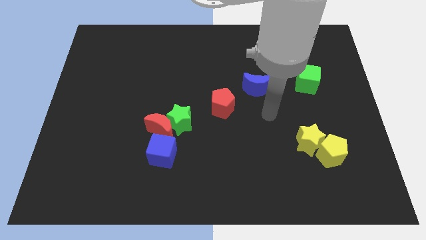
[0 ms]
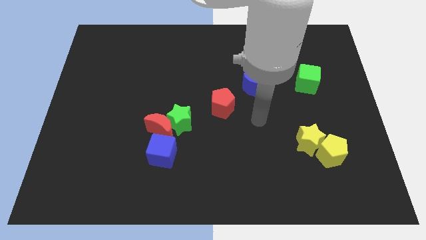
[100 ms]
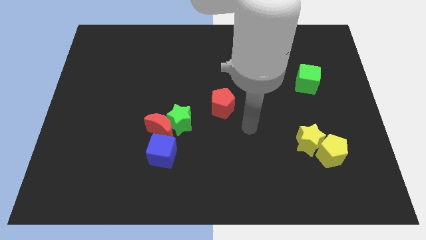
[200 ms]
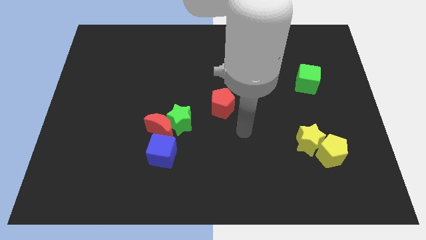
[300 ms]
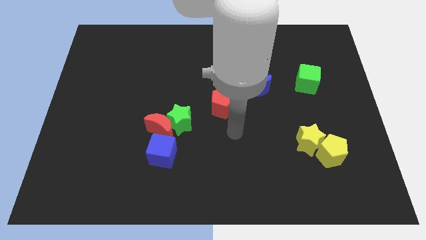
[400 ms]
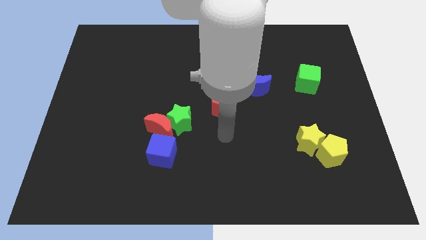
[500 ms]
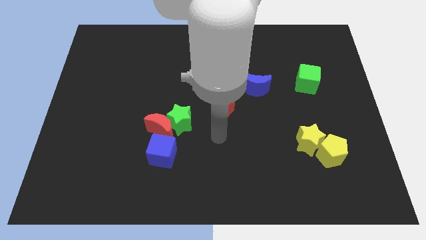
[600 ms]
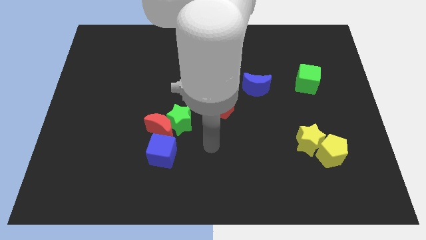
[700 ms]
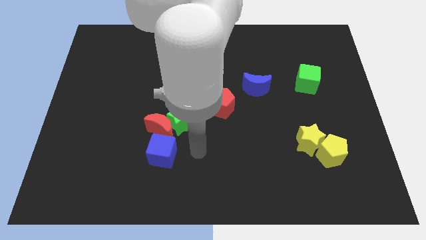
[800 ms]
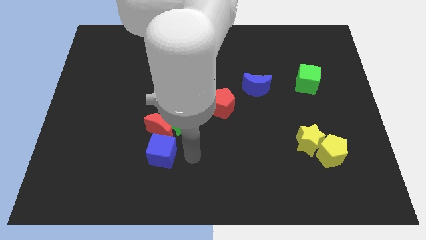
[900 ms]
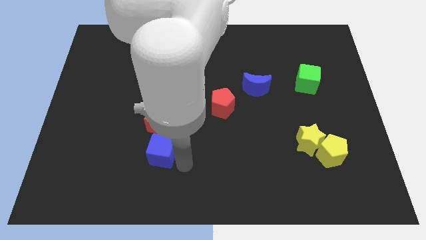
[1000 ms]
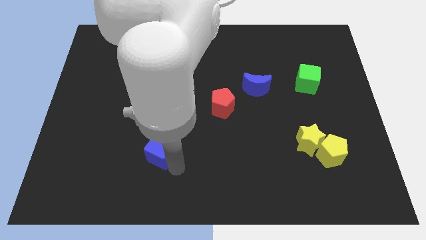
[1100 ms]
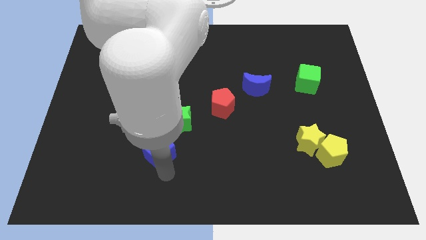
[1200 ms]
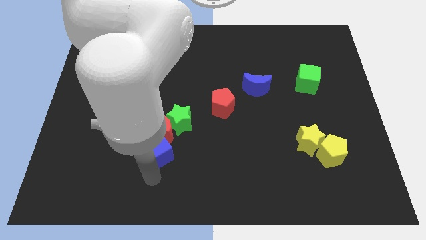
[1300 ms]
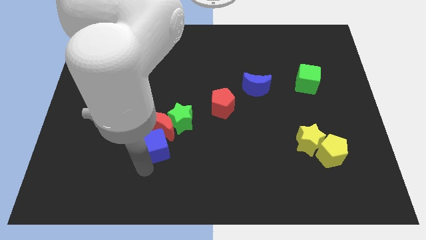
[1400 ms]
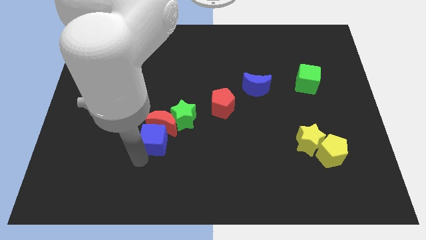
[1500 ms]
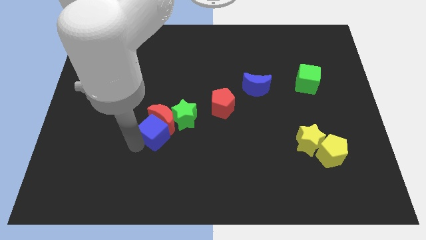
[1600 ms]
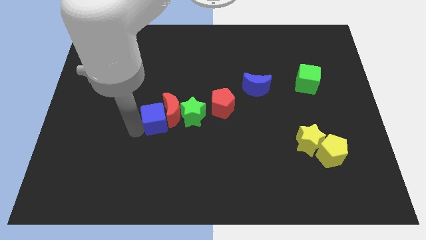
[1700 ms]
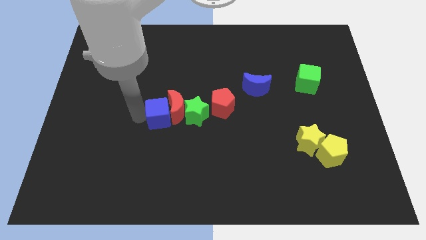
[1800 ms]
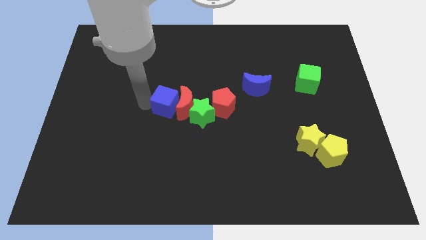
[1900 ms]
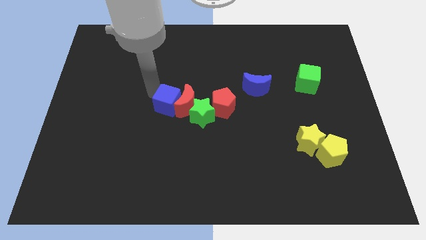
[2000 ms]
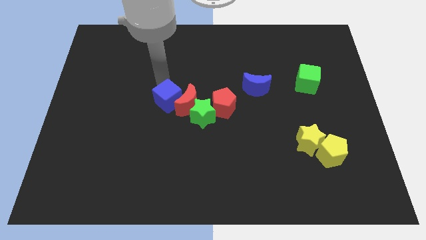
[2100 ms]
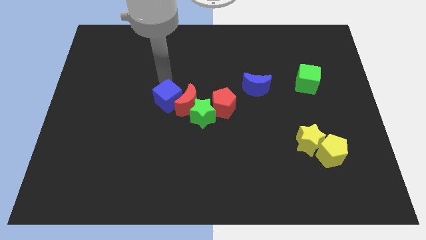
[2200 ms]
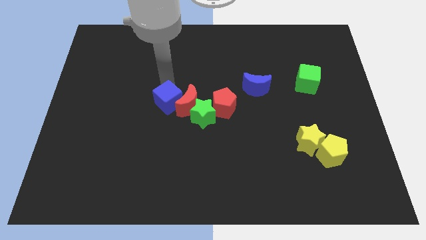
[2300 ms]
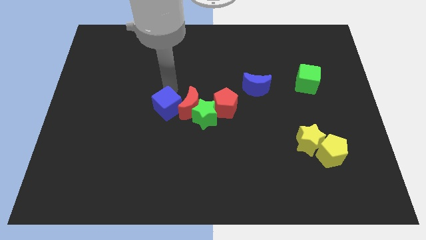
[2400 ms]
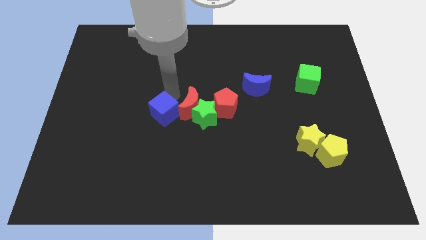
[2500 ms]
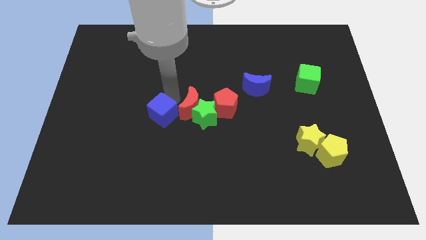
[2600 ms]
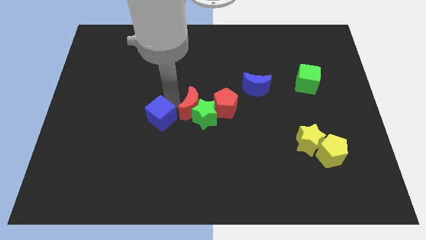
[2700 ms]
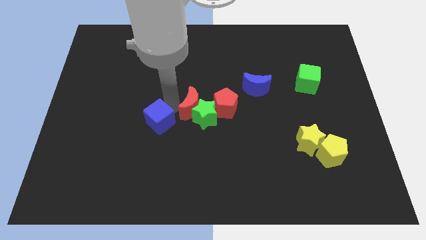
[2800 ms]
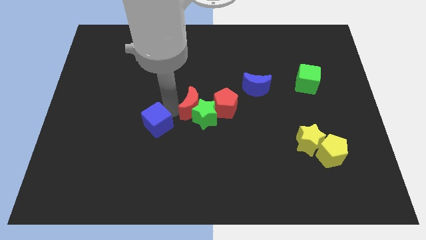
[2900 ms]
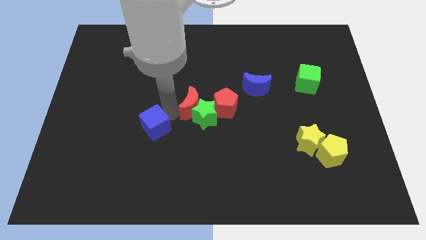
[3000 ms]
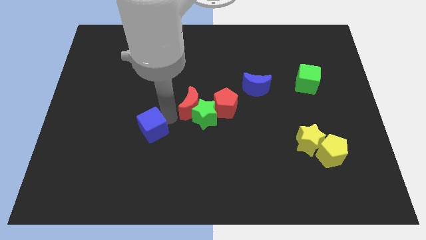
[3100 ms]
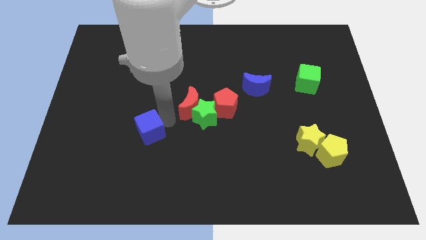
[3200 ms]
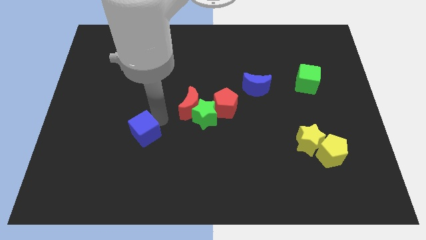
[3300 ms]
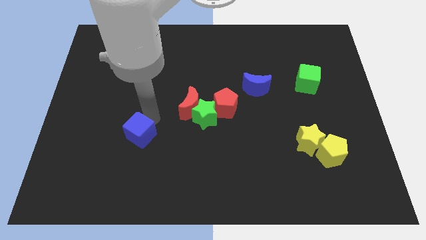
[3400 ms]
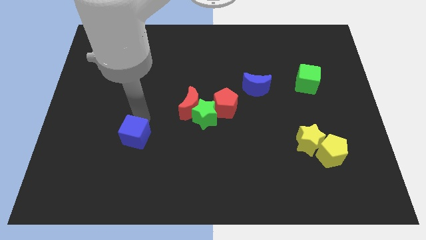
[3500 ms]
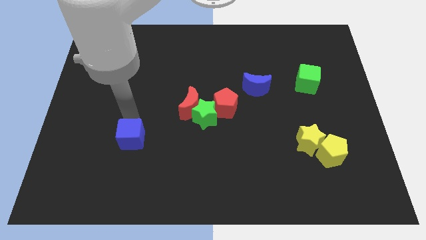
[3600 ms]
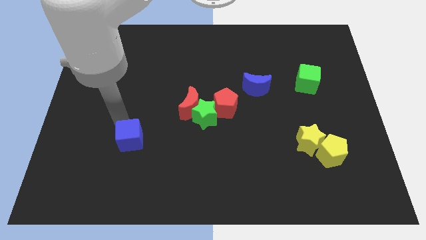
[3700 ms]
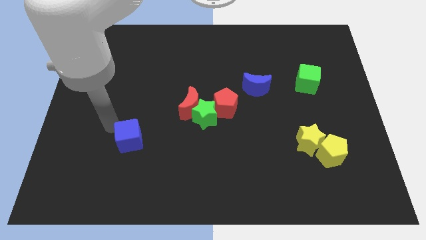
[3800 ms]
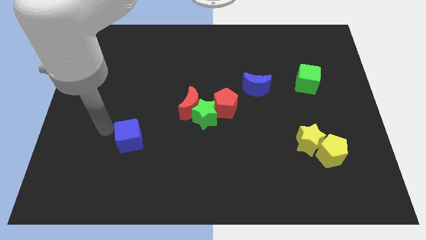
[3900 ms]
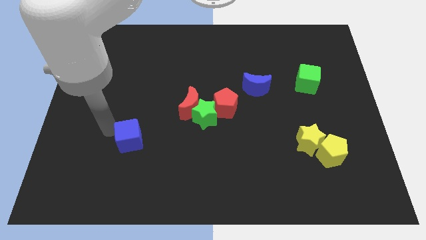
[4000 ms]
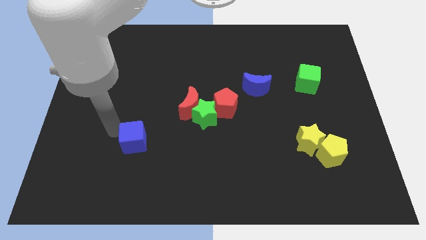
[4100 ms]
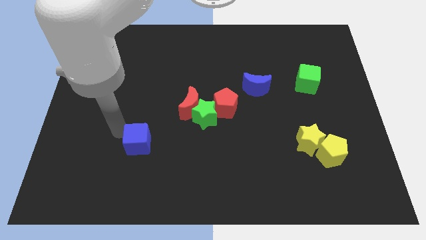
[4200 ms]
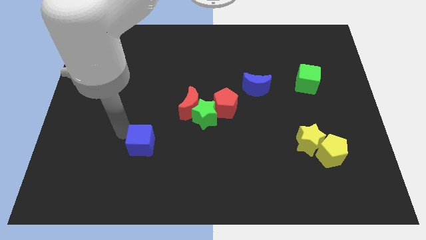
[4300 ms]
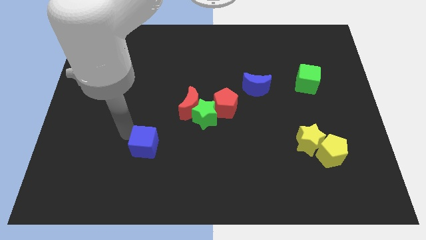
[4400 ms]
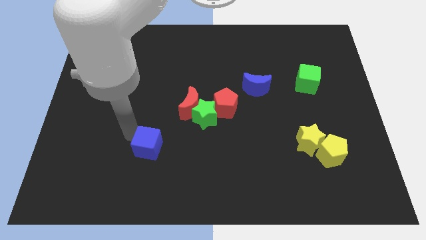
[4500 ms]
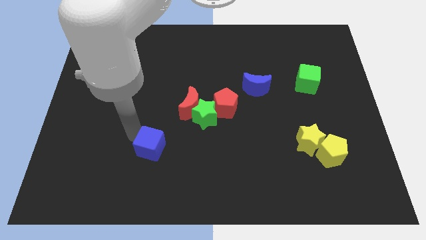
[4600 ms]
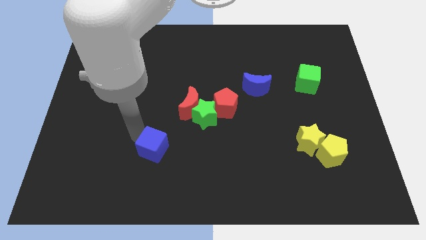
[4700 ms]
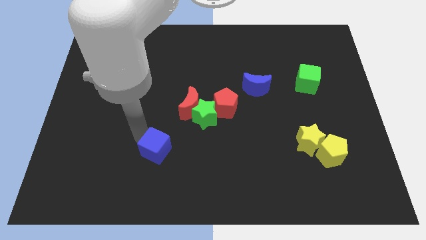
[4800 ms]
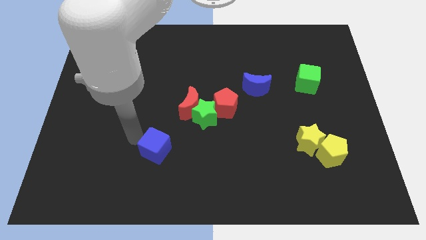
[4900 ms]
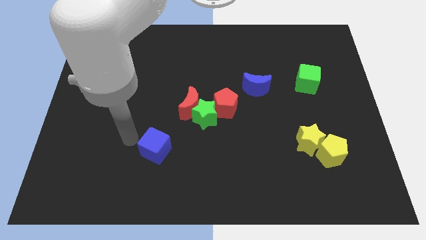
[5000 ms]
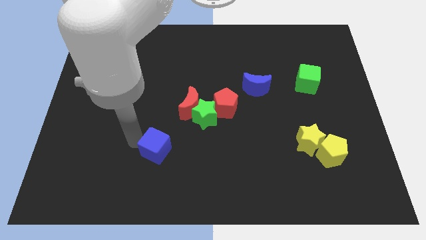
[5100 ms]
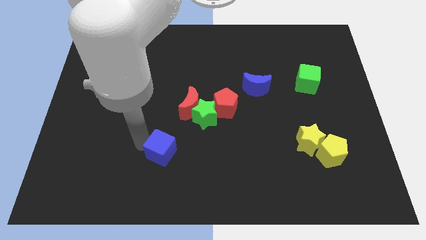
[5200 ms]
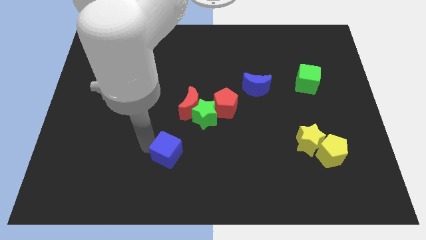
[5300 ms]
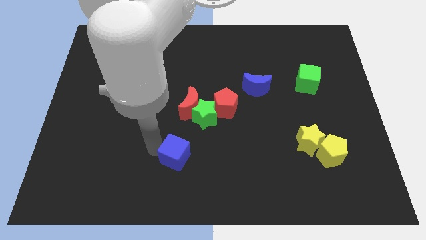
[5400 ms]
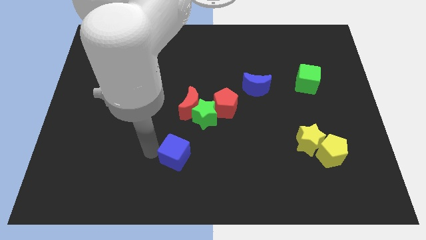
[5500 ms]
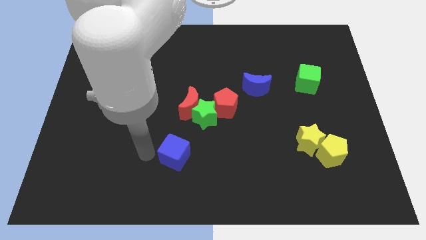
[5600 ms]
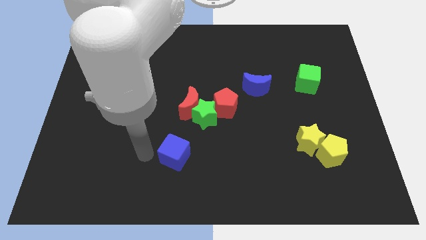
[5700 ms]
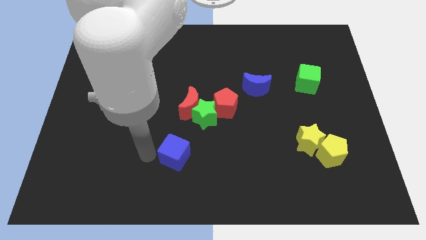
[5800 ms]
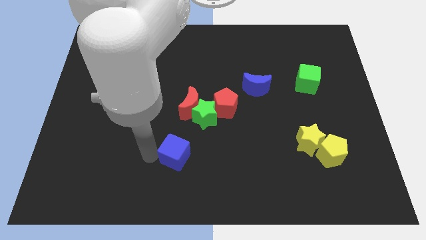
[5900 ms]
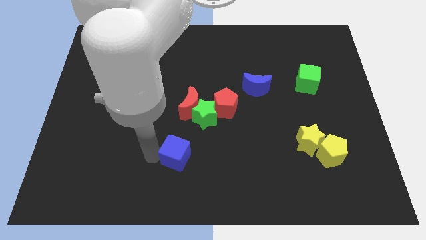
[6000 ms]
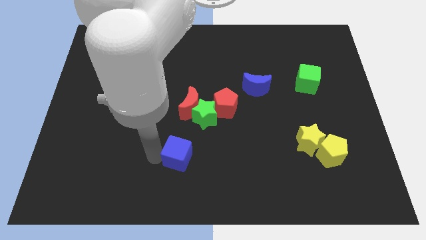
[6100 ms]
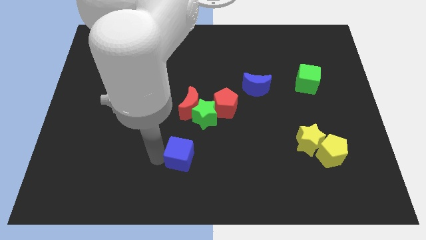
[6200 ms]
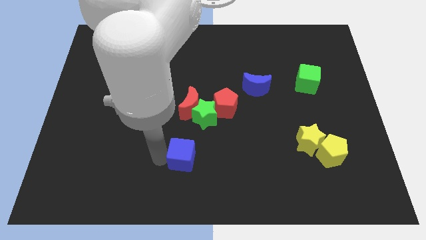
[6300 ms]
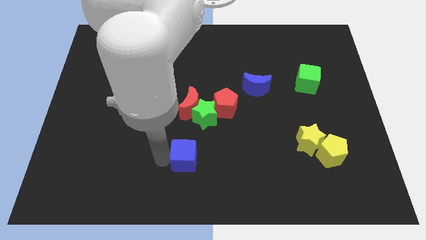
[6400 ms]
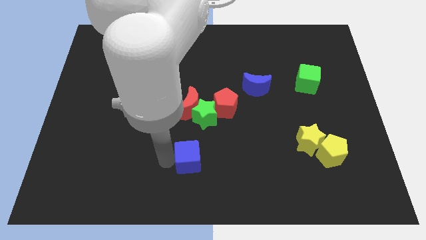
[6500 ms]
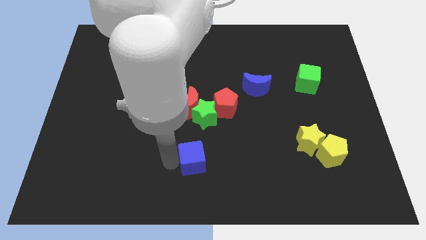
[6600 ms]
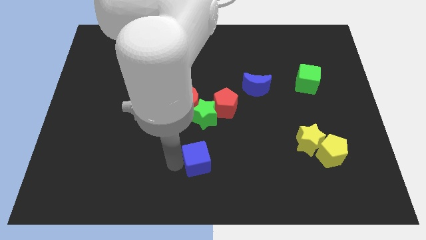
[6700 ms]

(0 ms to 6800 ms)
push the blue cube slightly right

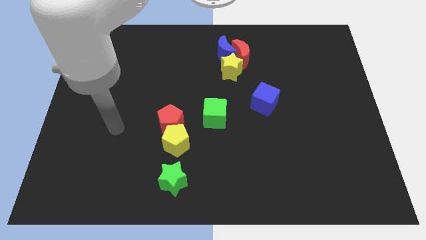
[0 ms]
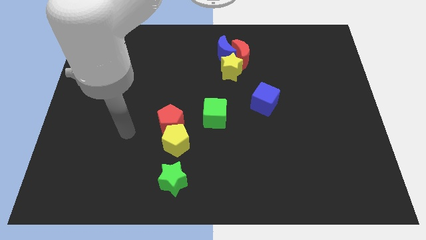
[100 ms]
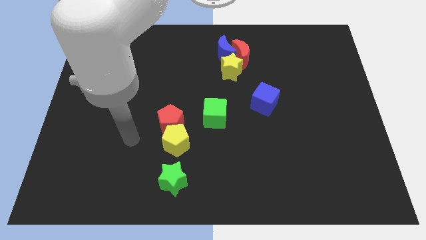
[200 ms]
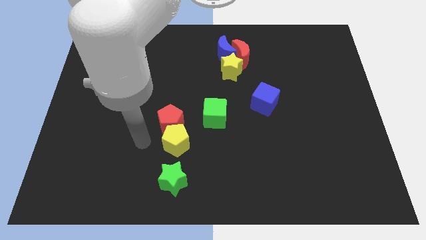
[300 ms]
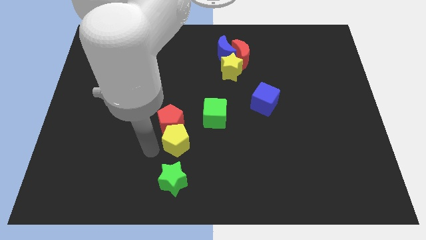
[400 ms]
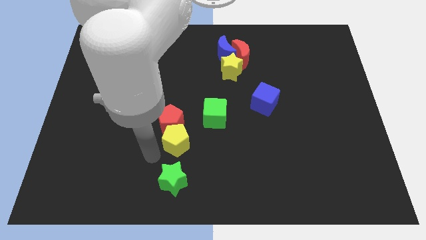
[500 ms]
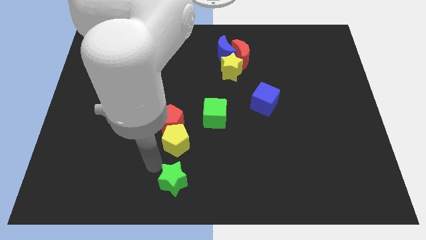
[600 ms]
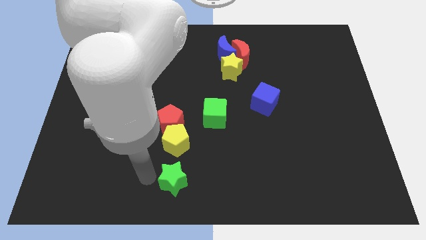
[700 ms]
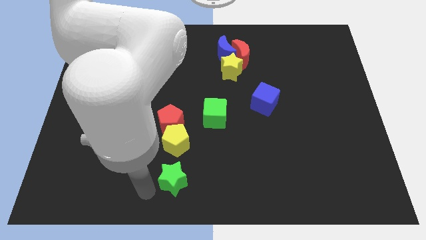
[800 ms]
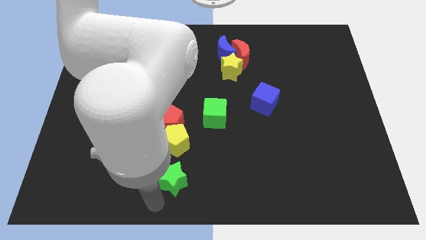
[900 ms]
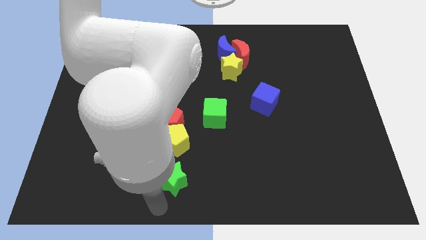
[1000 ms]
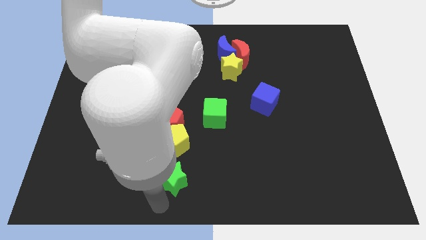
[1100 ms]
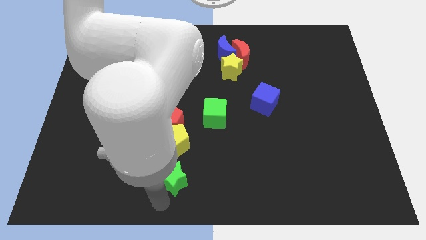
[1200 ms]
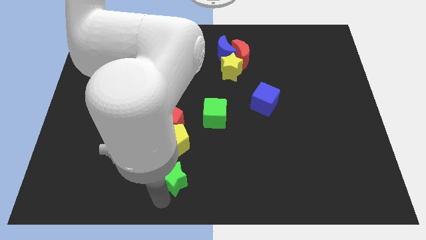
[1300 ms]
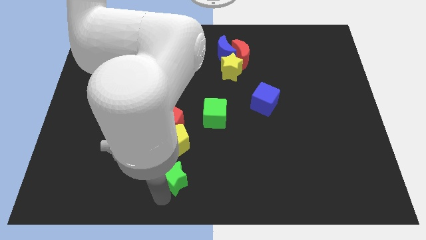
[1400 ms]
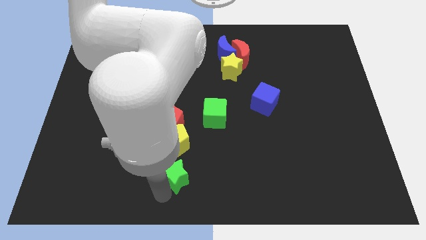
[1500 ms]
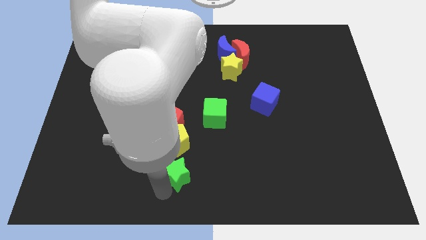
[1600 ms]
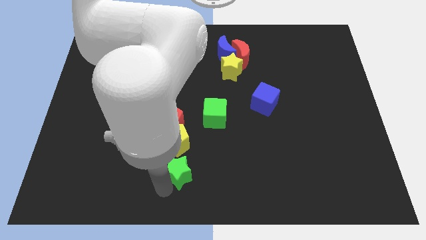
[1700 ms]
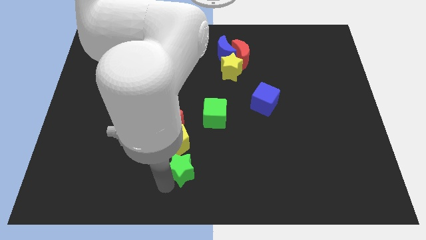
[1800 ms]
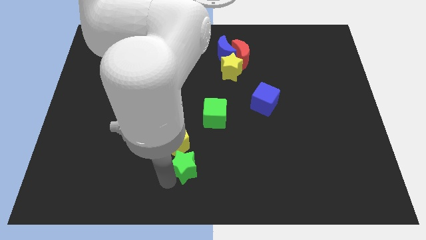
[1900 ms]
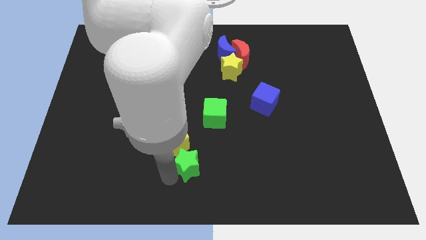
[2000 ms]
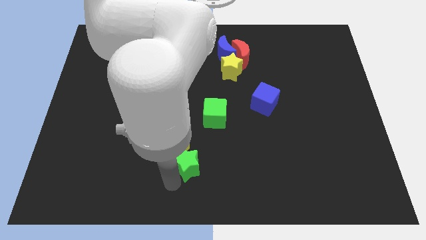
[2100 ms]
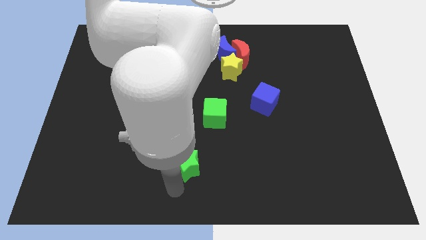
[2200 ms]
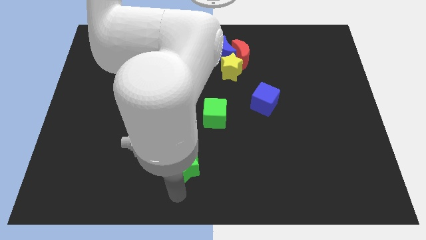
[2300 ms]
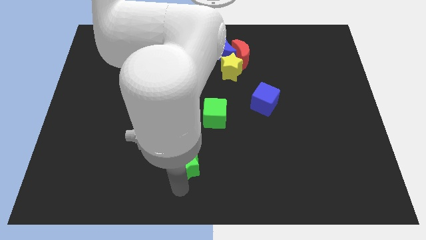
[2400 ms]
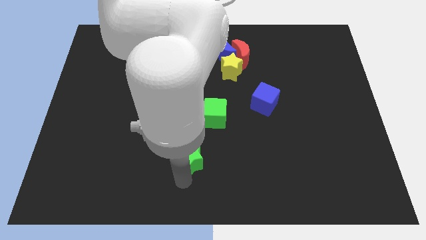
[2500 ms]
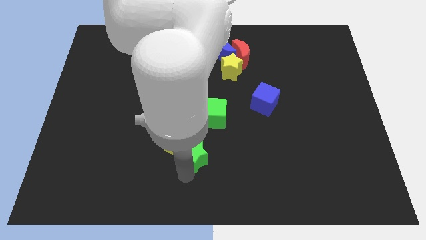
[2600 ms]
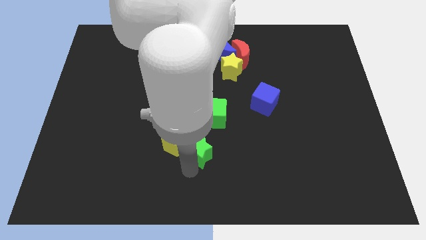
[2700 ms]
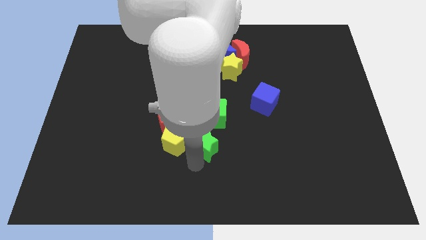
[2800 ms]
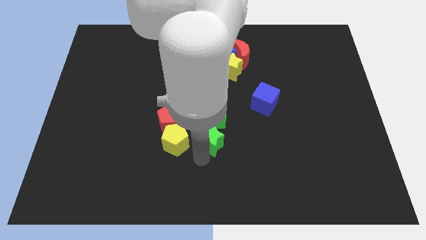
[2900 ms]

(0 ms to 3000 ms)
slightly move the green star up
